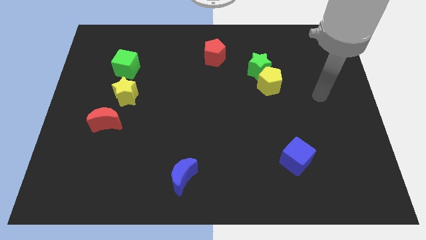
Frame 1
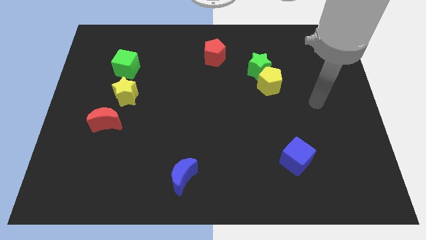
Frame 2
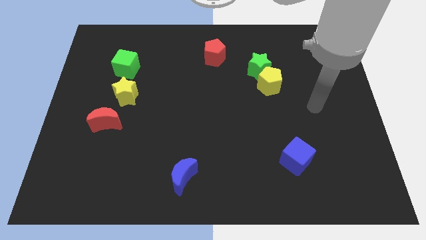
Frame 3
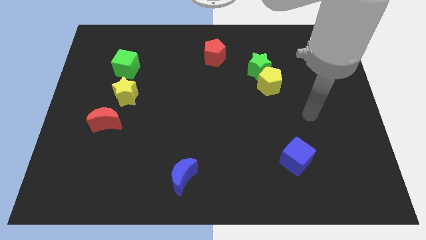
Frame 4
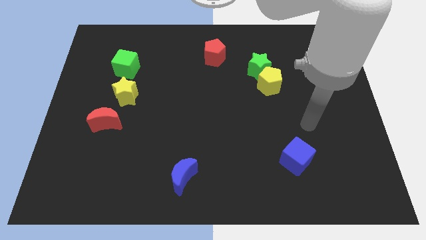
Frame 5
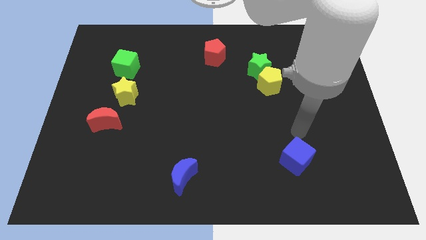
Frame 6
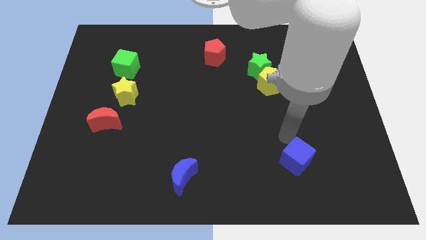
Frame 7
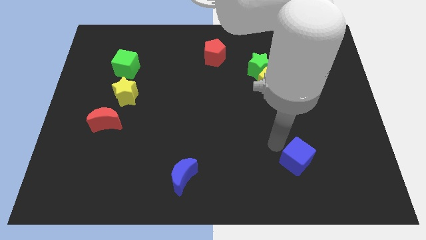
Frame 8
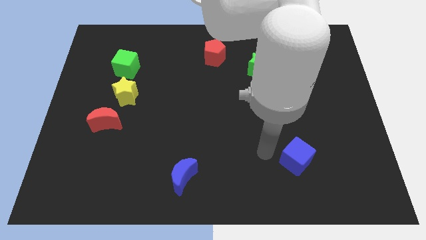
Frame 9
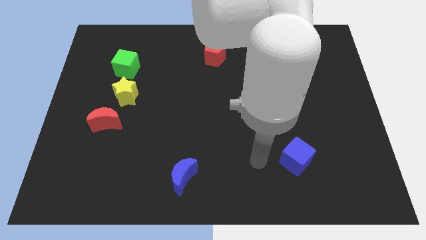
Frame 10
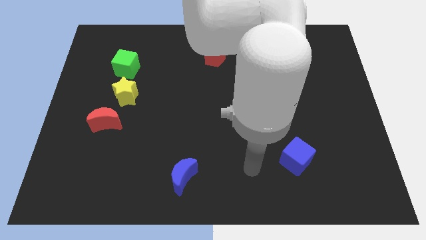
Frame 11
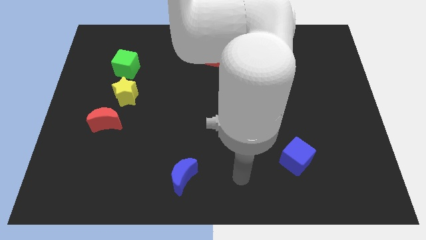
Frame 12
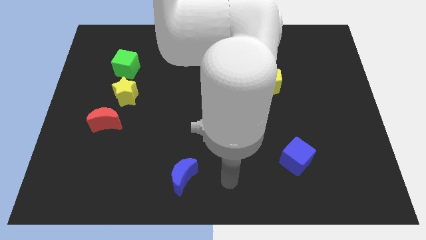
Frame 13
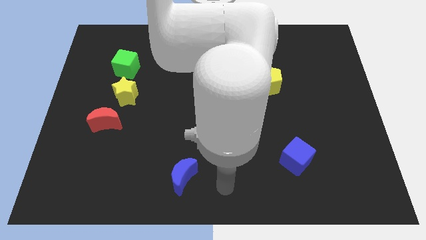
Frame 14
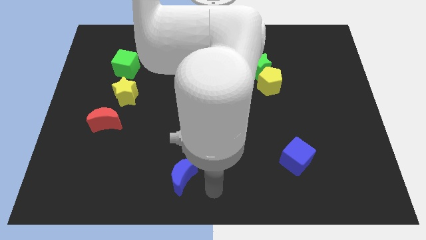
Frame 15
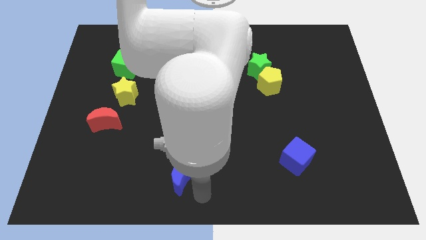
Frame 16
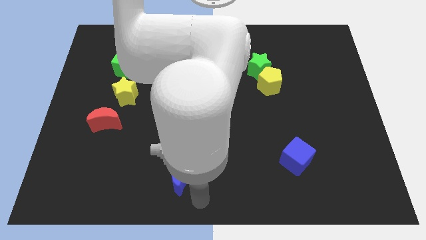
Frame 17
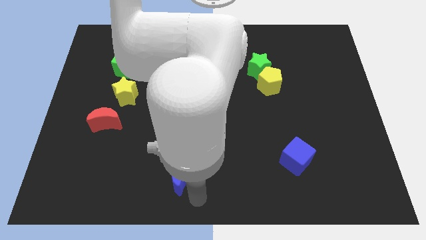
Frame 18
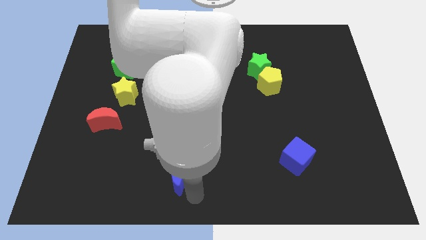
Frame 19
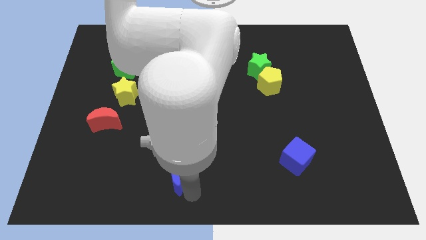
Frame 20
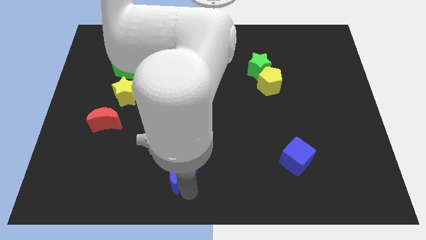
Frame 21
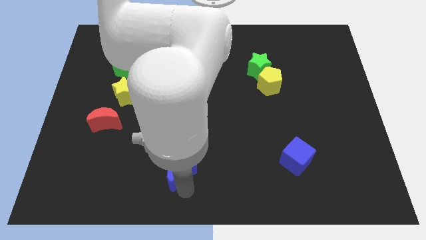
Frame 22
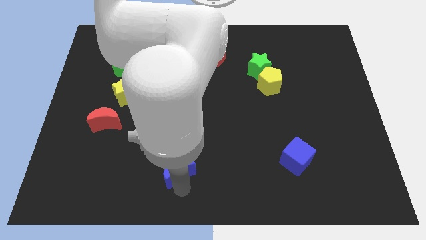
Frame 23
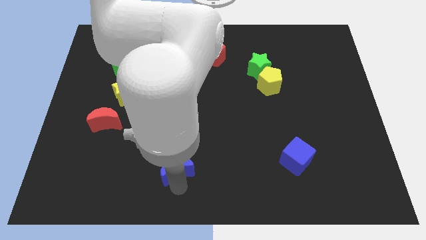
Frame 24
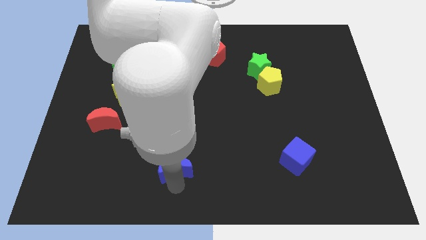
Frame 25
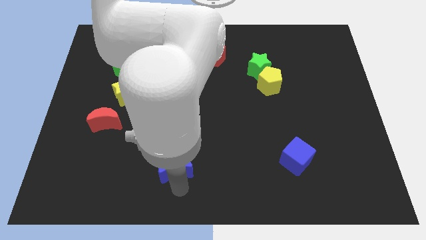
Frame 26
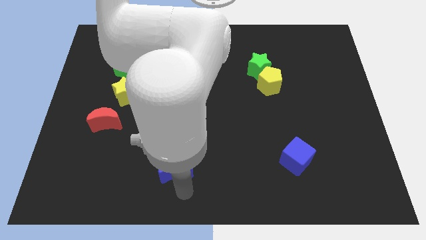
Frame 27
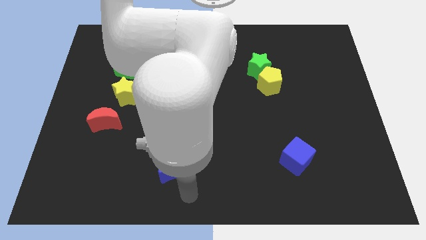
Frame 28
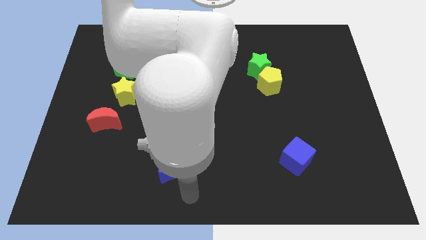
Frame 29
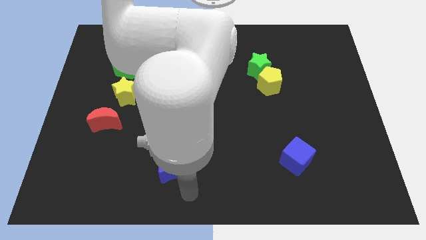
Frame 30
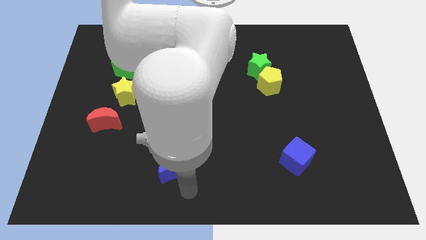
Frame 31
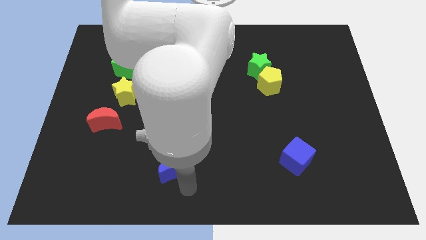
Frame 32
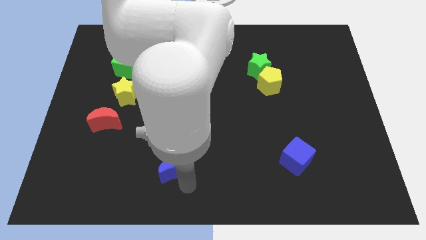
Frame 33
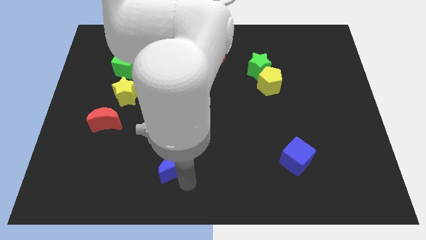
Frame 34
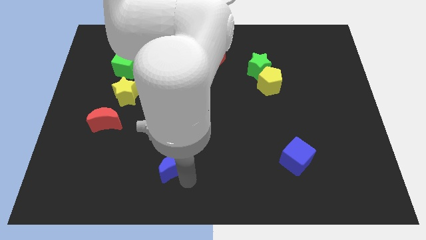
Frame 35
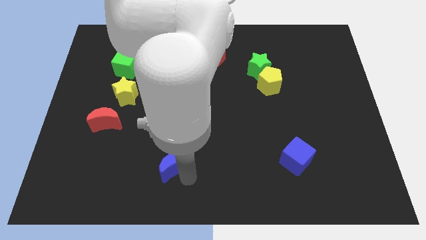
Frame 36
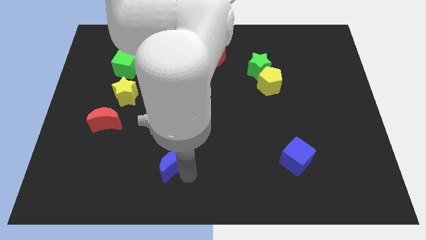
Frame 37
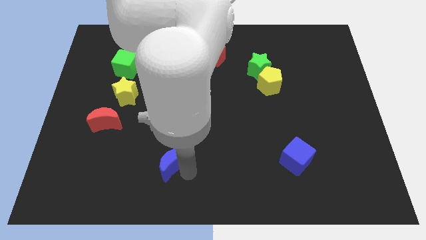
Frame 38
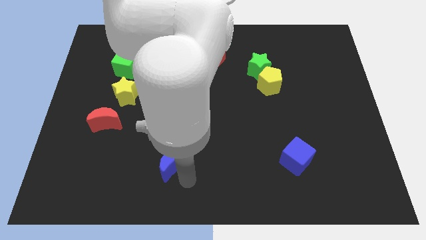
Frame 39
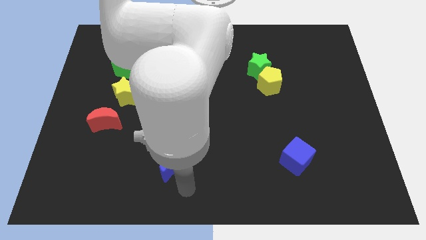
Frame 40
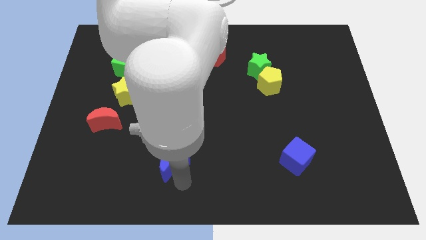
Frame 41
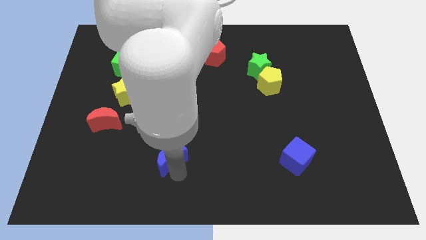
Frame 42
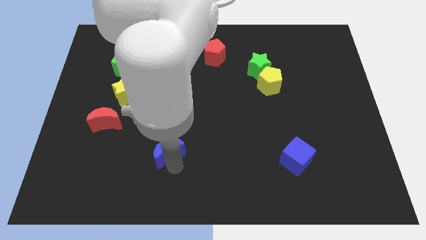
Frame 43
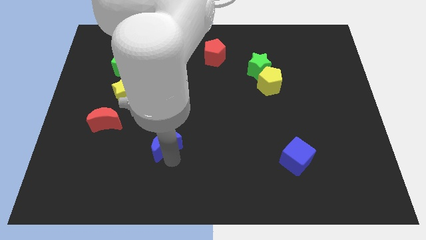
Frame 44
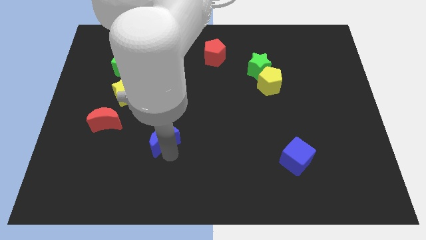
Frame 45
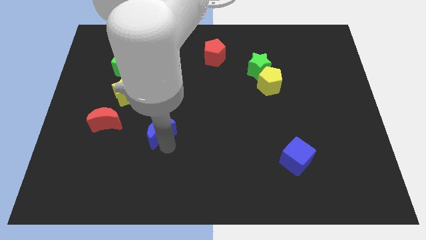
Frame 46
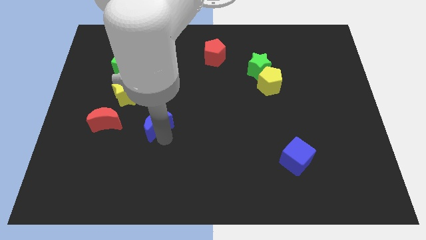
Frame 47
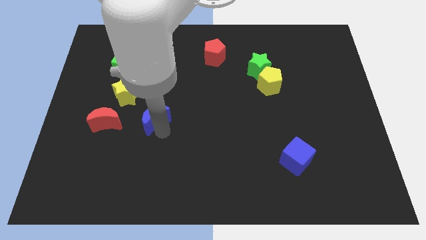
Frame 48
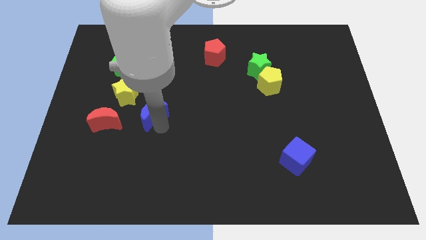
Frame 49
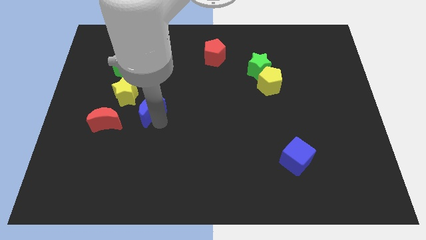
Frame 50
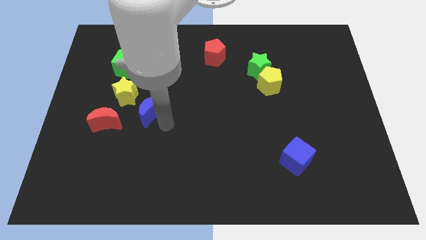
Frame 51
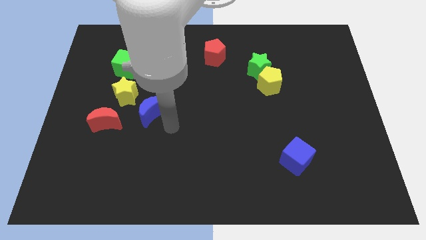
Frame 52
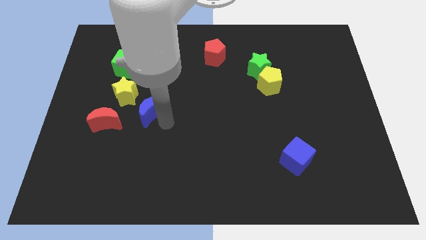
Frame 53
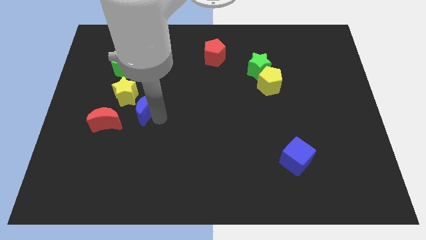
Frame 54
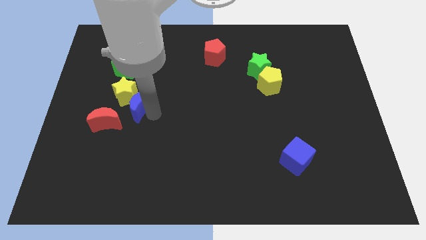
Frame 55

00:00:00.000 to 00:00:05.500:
slide the blue moon towards the yellow star
